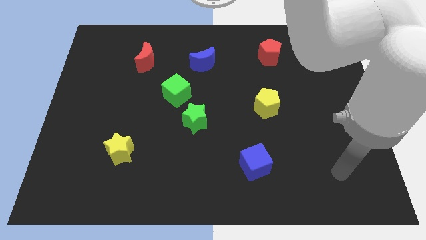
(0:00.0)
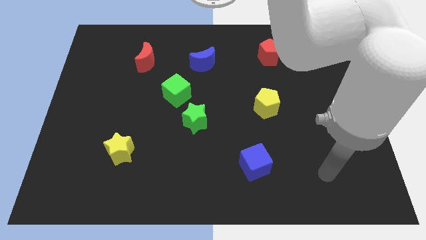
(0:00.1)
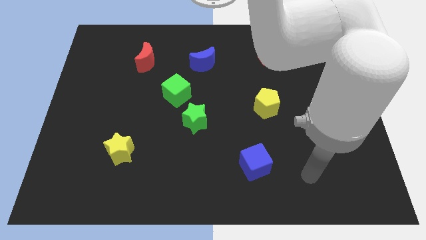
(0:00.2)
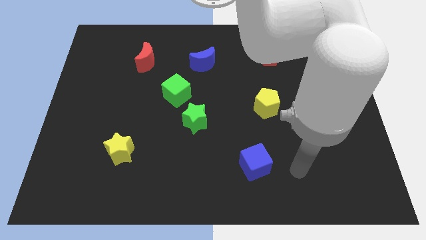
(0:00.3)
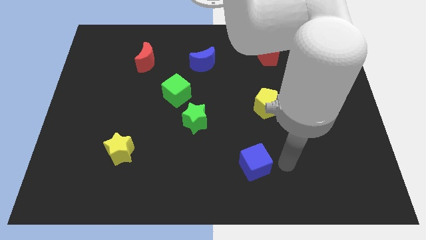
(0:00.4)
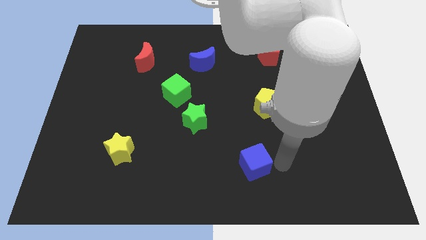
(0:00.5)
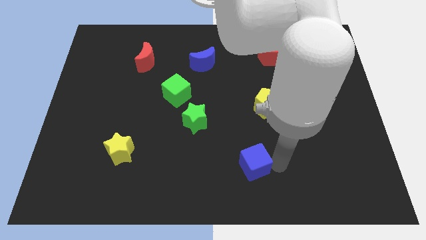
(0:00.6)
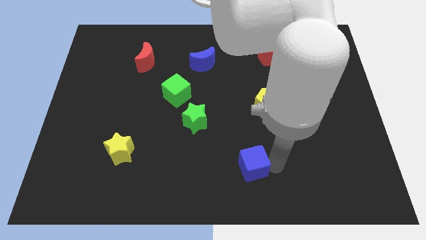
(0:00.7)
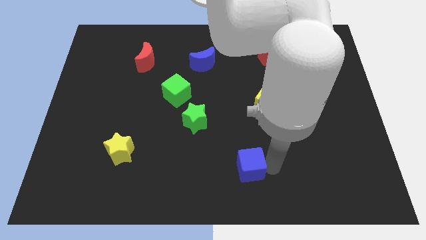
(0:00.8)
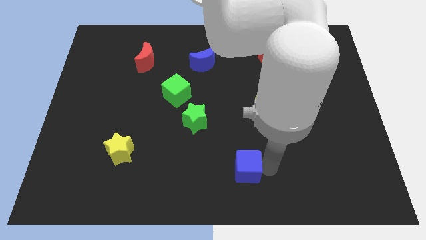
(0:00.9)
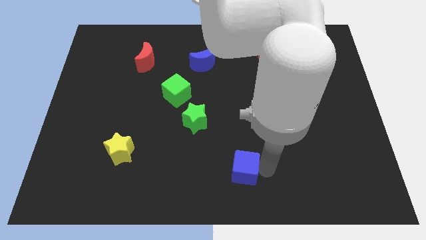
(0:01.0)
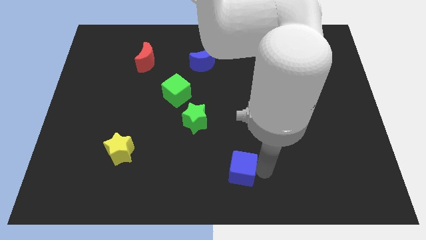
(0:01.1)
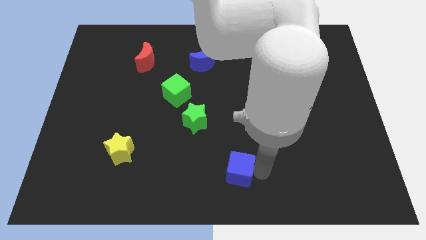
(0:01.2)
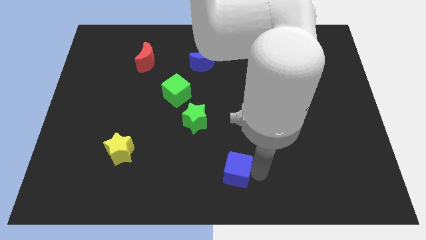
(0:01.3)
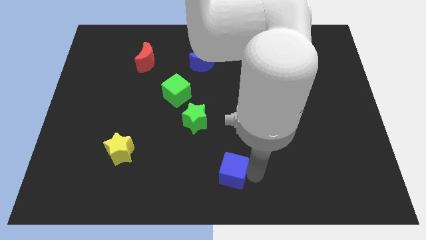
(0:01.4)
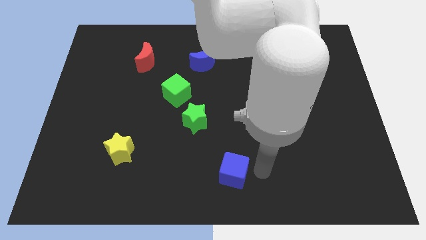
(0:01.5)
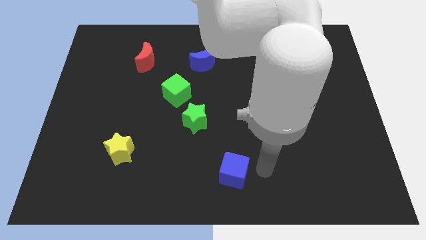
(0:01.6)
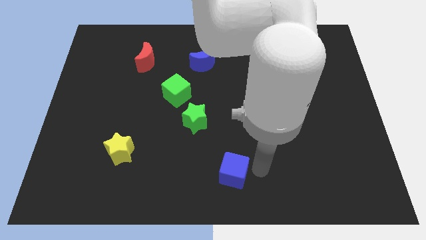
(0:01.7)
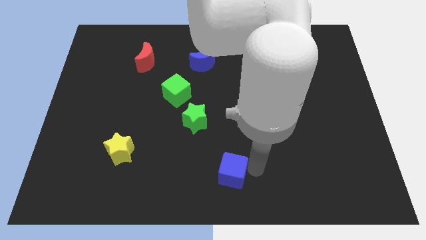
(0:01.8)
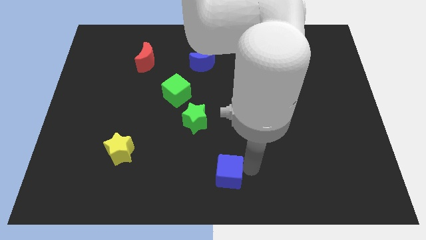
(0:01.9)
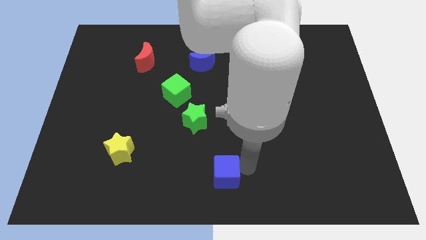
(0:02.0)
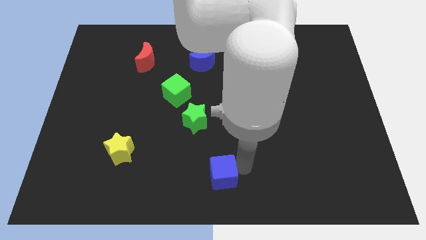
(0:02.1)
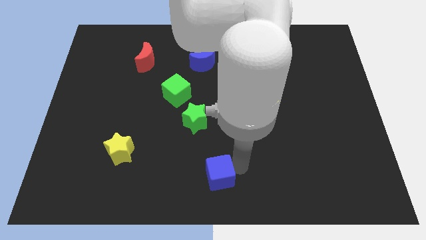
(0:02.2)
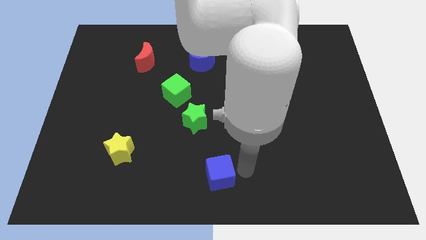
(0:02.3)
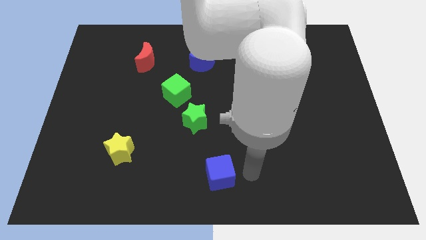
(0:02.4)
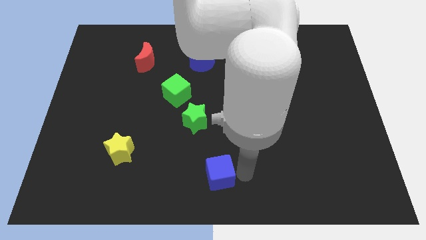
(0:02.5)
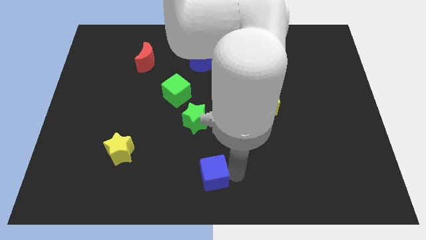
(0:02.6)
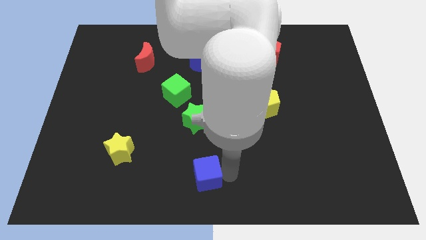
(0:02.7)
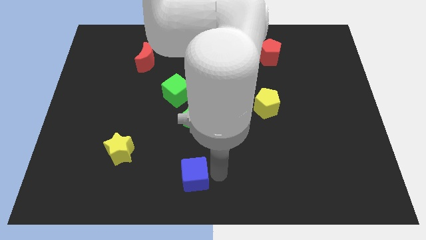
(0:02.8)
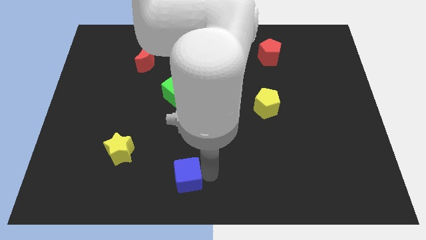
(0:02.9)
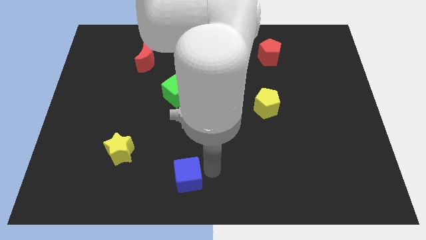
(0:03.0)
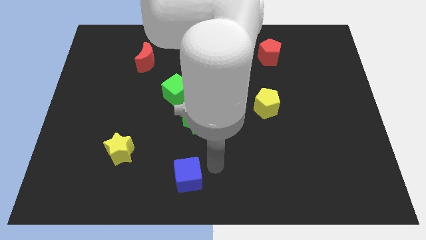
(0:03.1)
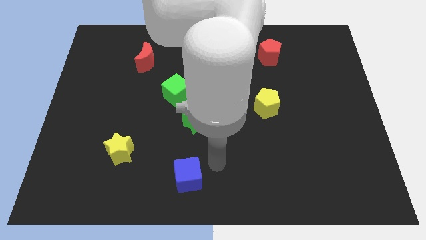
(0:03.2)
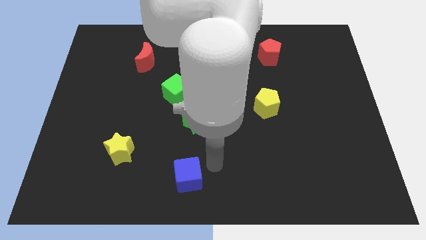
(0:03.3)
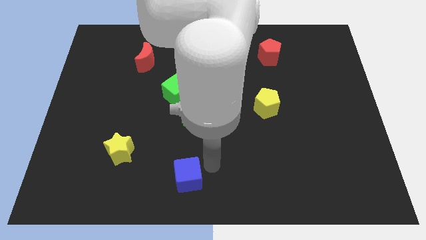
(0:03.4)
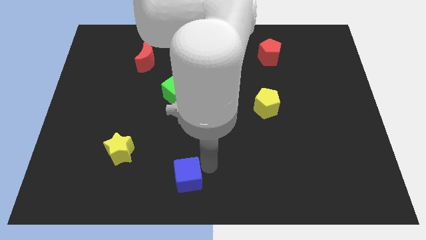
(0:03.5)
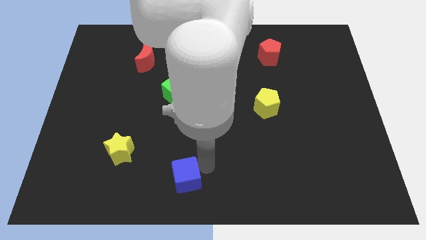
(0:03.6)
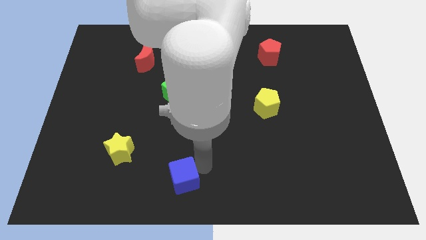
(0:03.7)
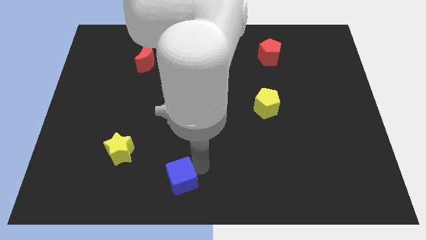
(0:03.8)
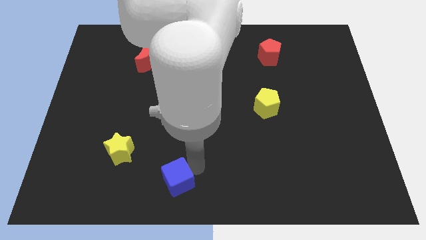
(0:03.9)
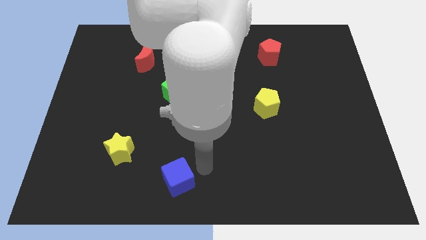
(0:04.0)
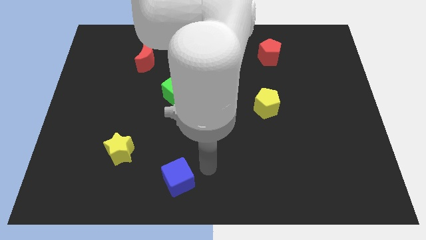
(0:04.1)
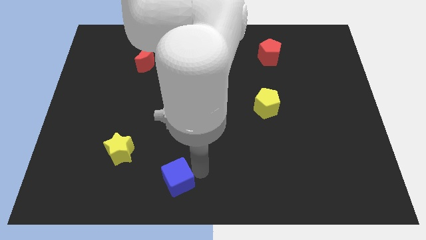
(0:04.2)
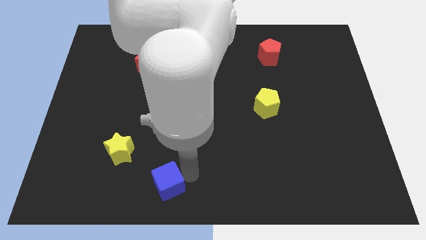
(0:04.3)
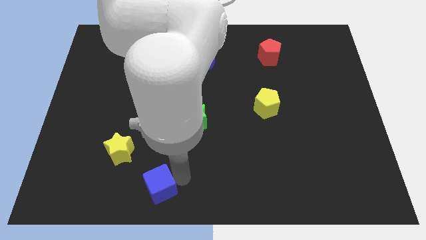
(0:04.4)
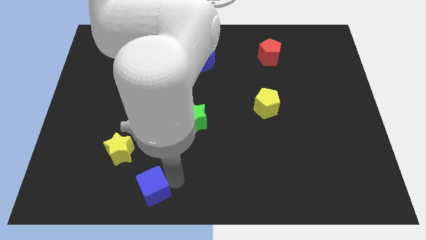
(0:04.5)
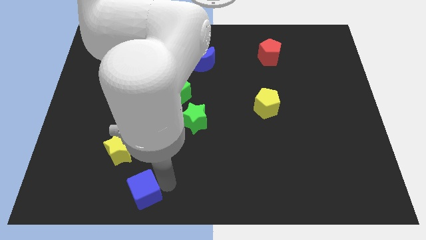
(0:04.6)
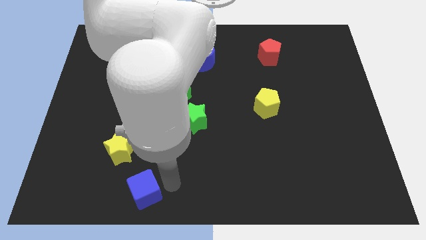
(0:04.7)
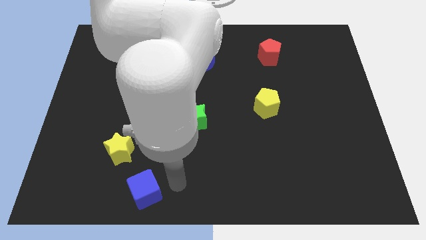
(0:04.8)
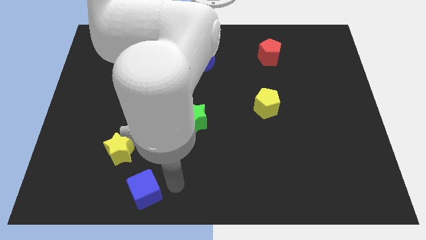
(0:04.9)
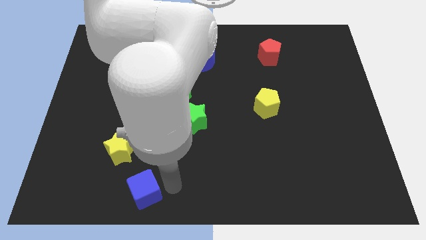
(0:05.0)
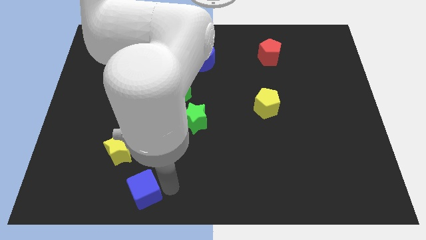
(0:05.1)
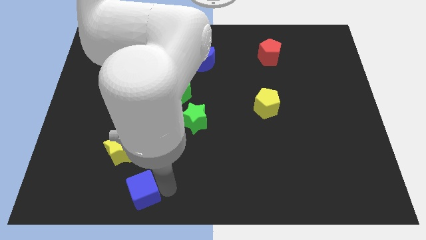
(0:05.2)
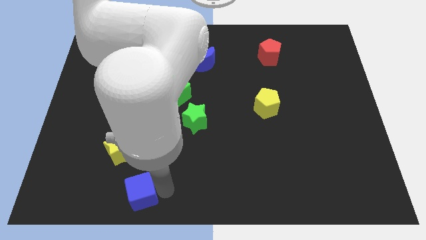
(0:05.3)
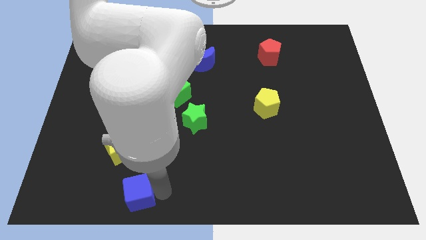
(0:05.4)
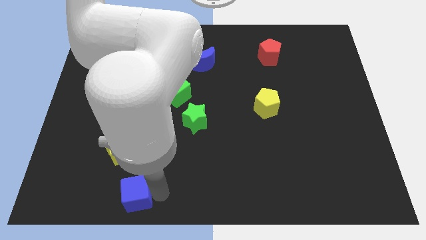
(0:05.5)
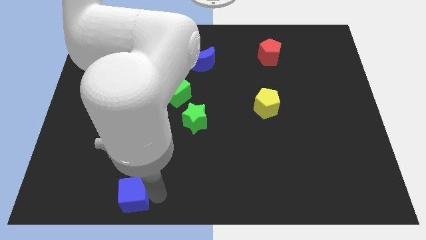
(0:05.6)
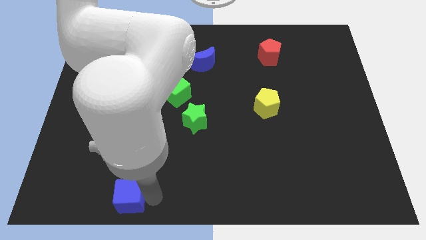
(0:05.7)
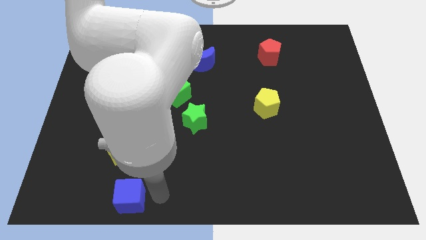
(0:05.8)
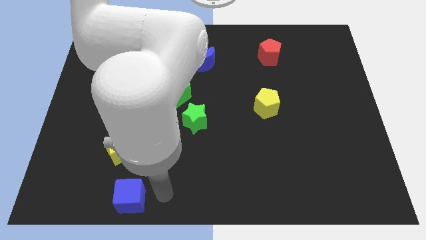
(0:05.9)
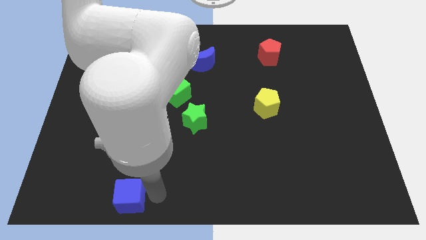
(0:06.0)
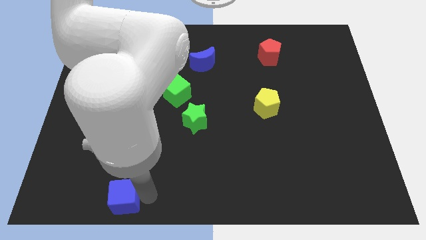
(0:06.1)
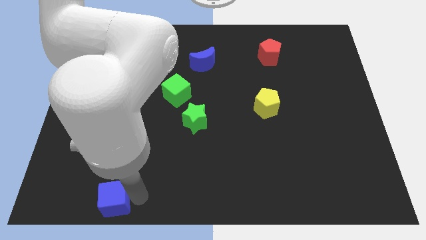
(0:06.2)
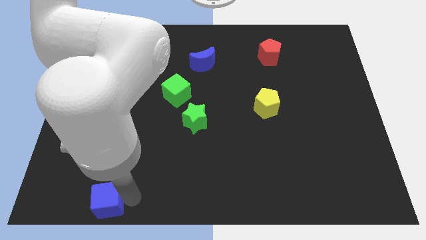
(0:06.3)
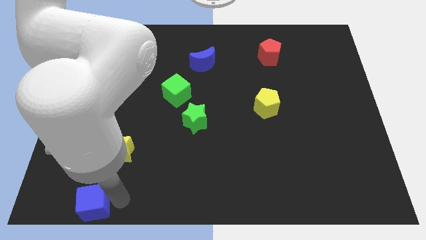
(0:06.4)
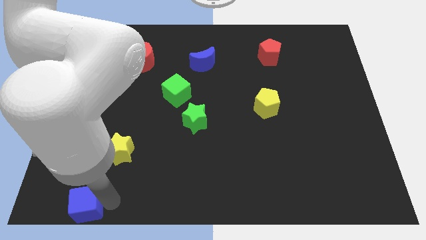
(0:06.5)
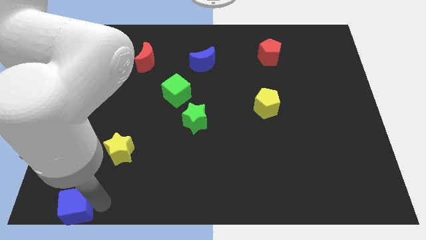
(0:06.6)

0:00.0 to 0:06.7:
push the blue cube to the bottom left of the board
